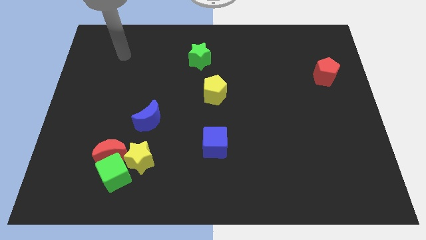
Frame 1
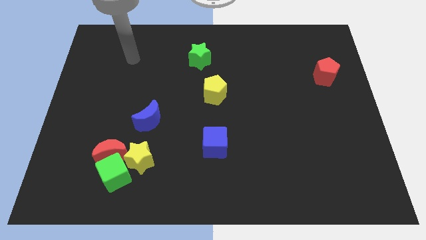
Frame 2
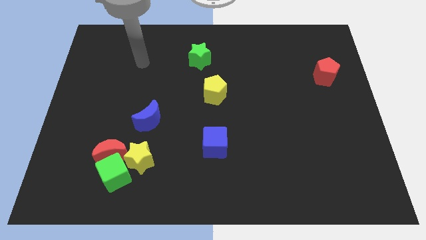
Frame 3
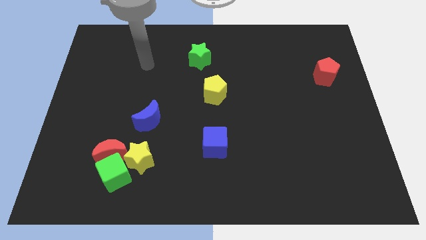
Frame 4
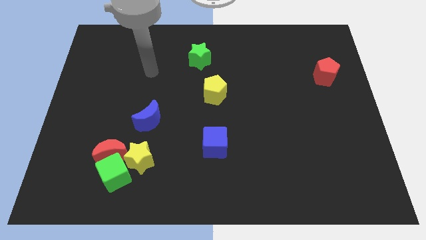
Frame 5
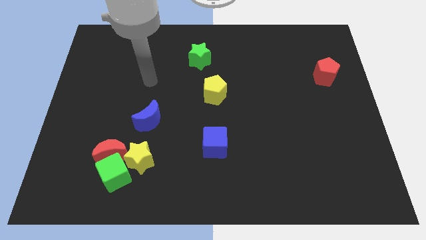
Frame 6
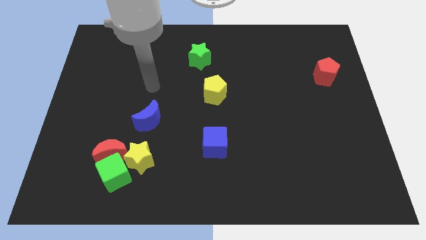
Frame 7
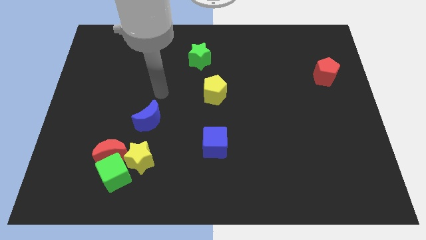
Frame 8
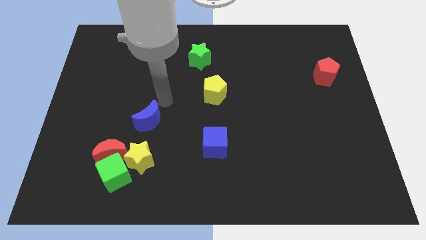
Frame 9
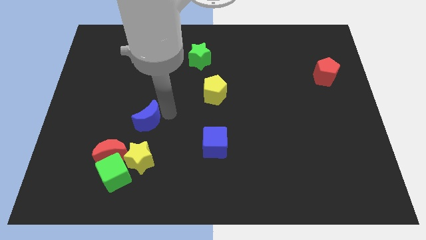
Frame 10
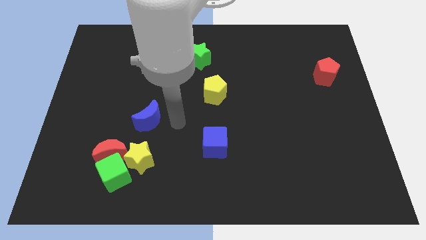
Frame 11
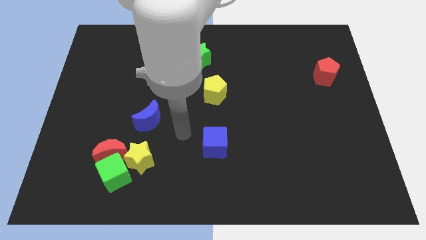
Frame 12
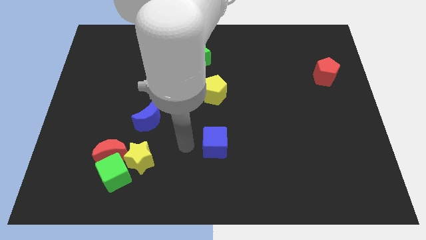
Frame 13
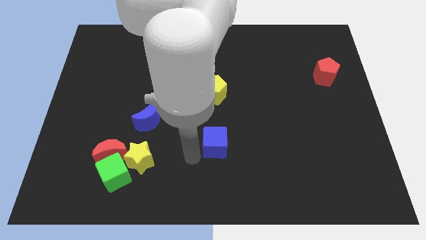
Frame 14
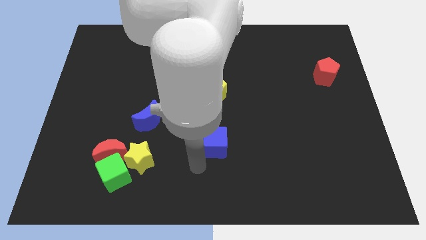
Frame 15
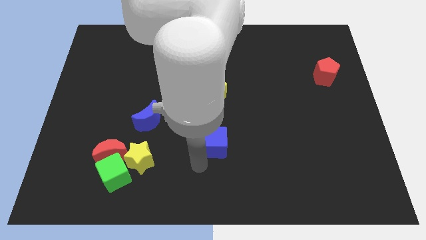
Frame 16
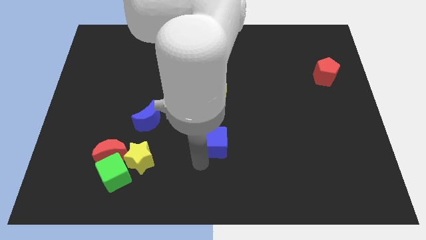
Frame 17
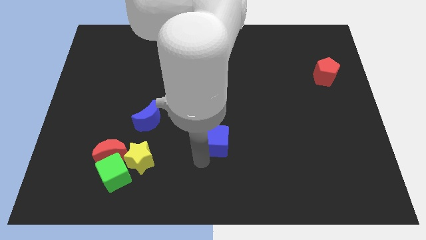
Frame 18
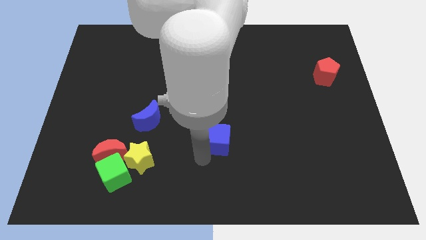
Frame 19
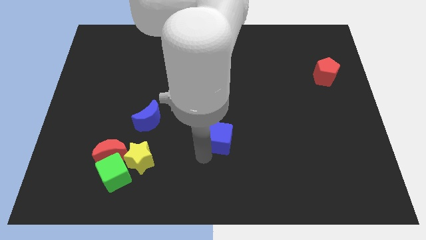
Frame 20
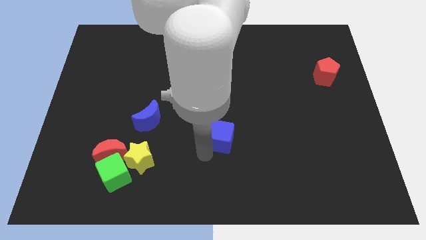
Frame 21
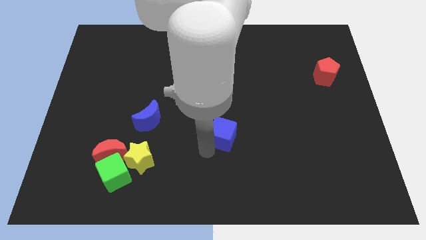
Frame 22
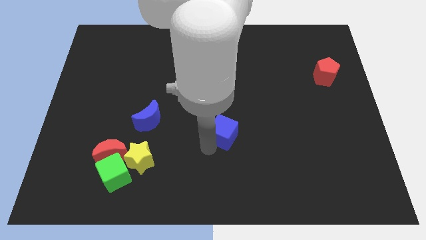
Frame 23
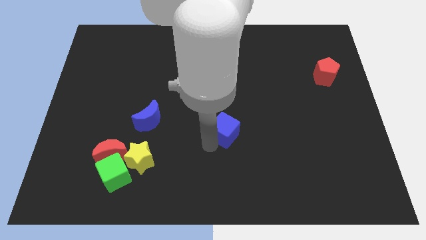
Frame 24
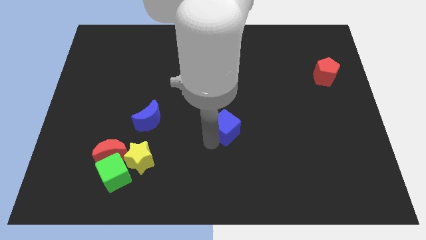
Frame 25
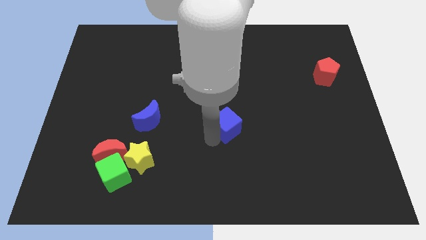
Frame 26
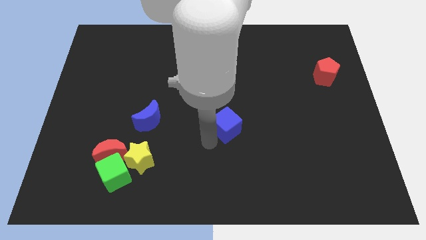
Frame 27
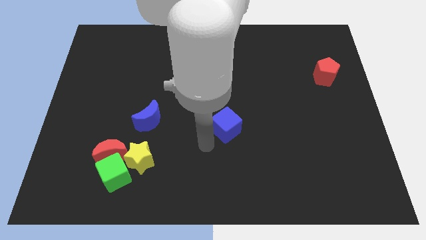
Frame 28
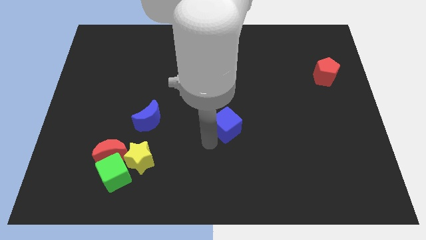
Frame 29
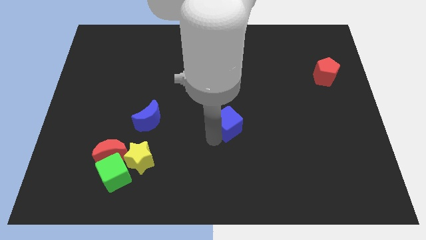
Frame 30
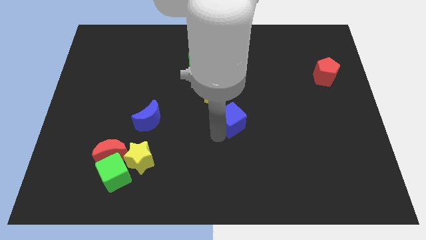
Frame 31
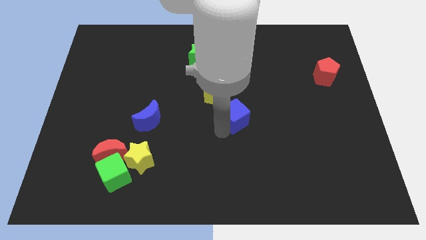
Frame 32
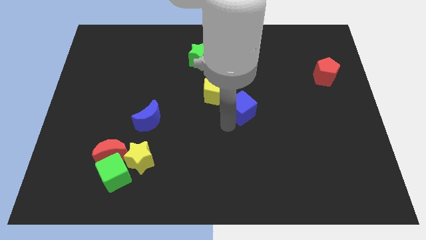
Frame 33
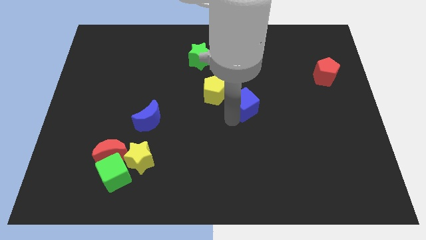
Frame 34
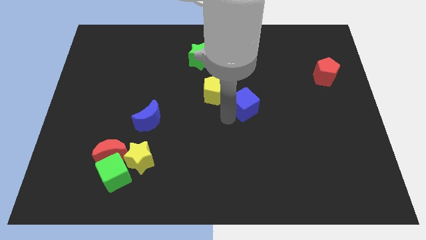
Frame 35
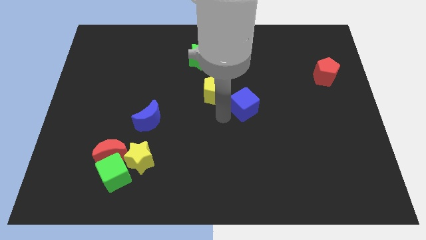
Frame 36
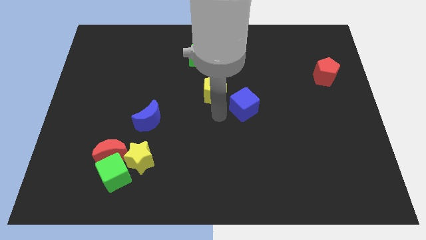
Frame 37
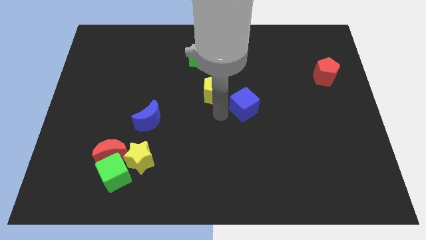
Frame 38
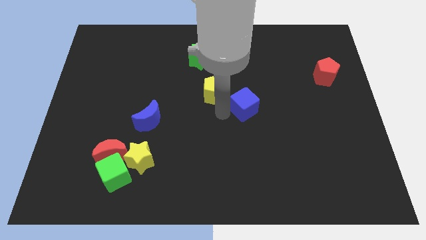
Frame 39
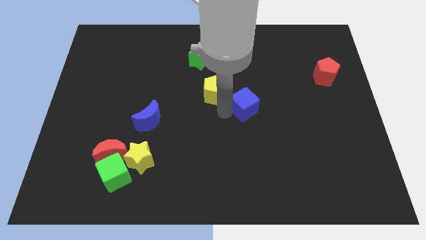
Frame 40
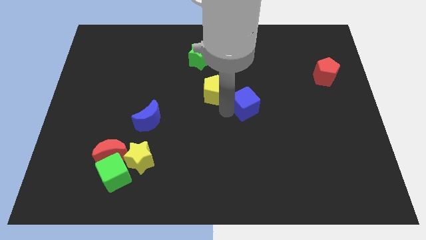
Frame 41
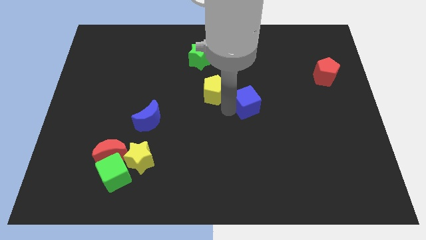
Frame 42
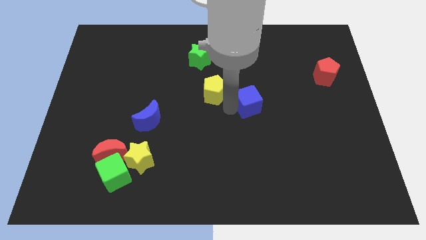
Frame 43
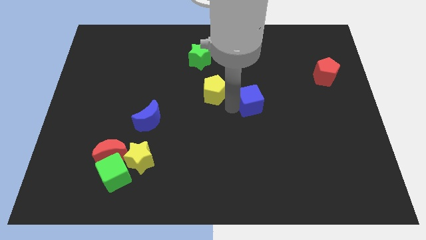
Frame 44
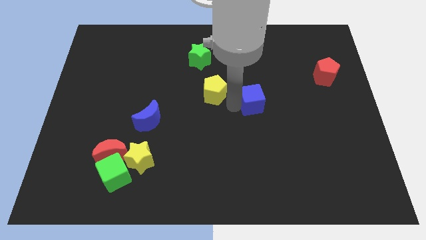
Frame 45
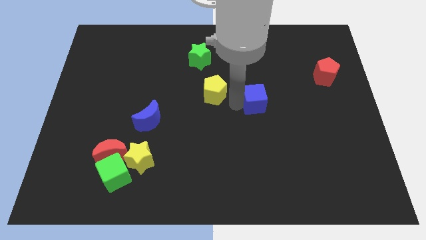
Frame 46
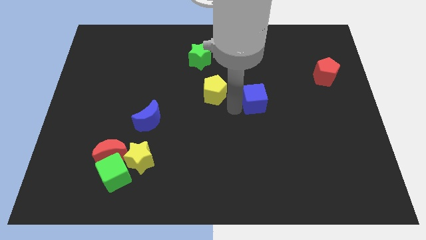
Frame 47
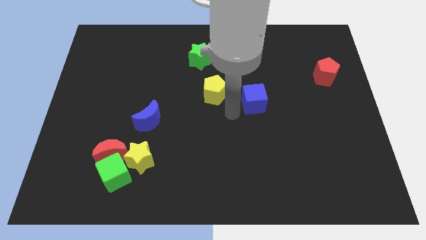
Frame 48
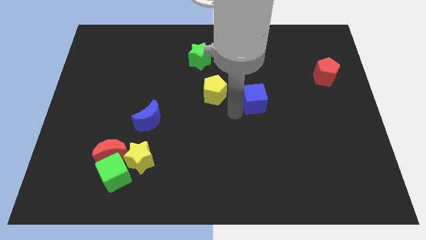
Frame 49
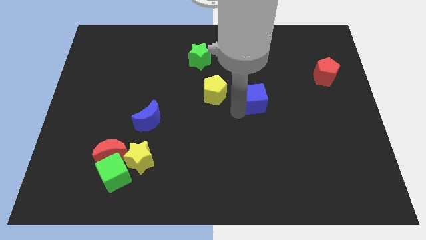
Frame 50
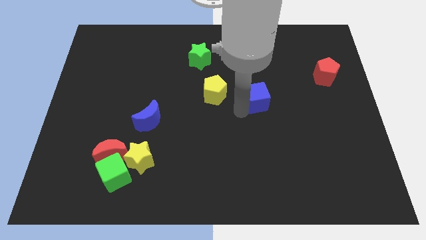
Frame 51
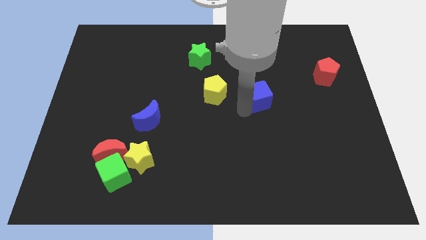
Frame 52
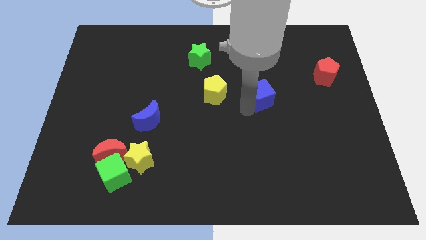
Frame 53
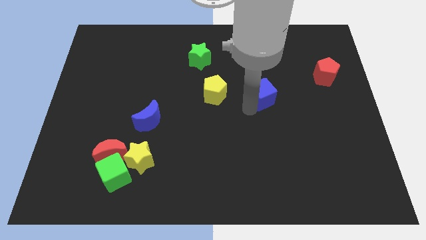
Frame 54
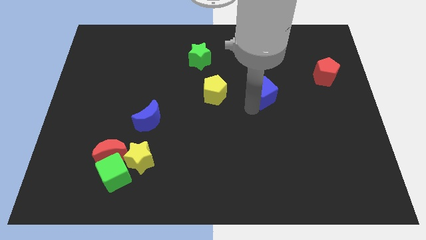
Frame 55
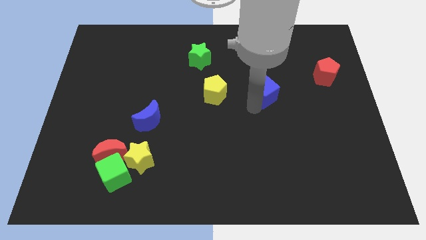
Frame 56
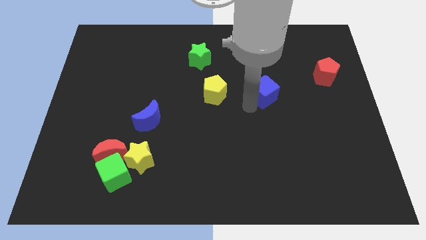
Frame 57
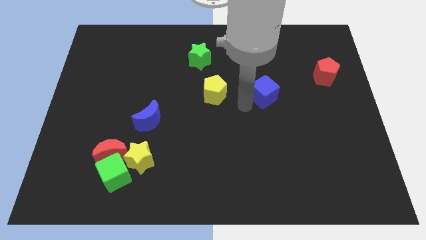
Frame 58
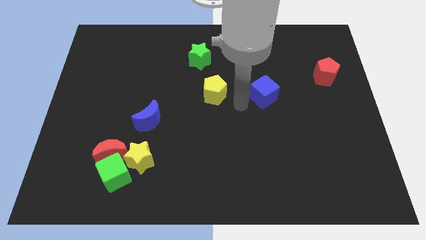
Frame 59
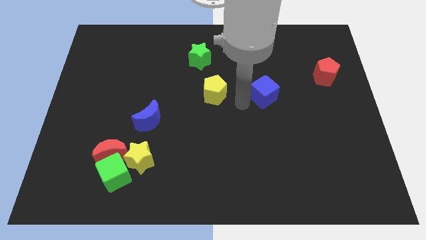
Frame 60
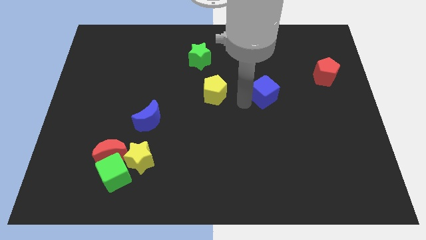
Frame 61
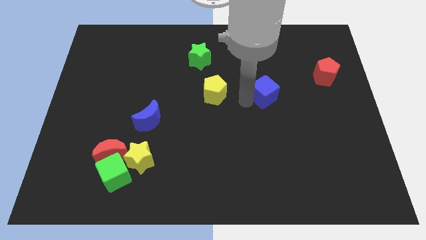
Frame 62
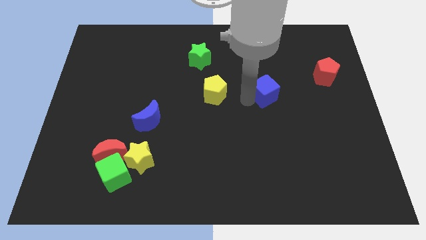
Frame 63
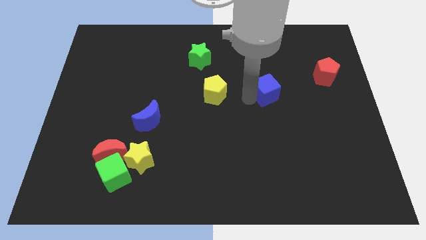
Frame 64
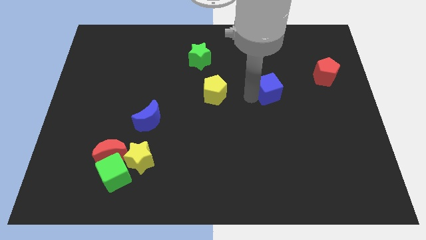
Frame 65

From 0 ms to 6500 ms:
push the blue cube up and right diagonally

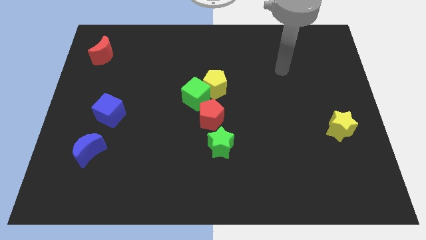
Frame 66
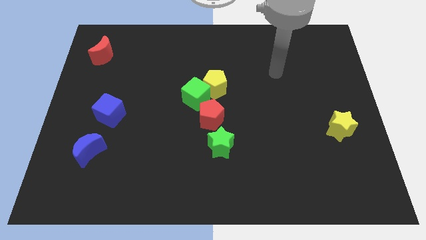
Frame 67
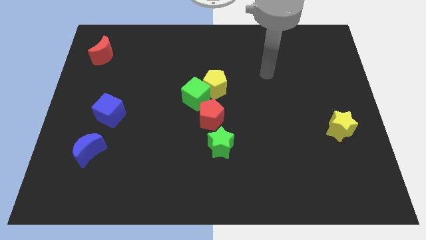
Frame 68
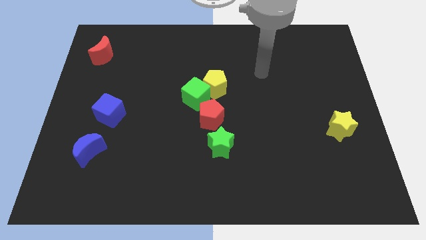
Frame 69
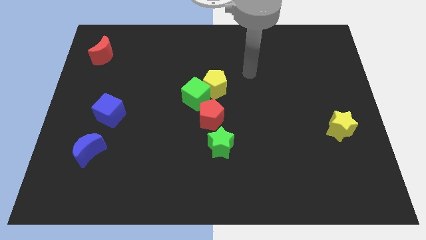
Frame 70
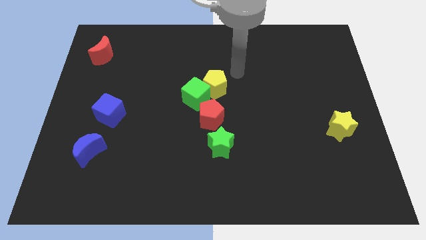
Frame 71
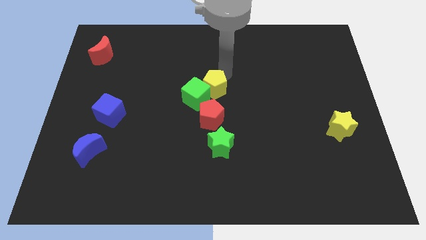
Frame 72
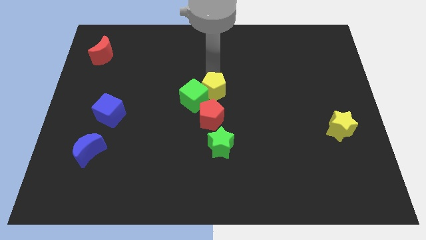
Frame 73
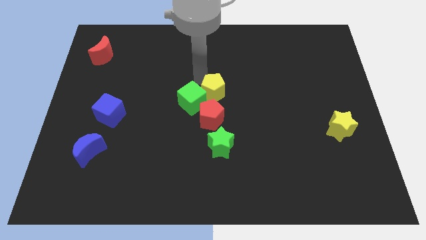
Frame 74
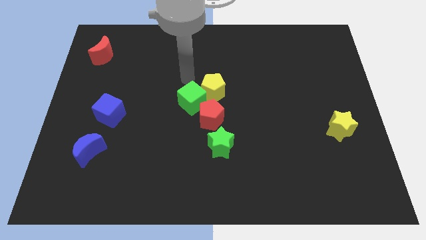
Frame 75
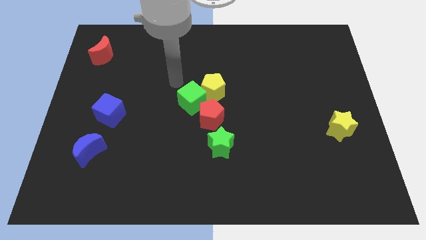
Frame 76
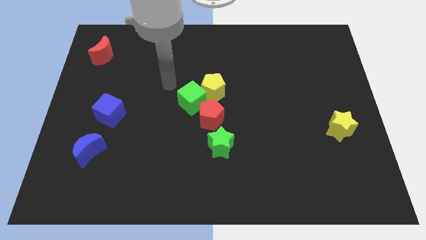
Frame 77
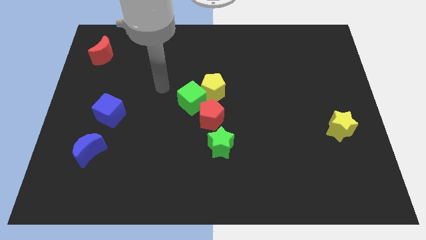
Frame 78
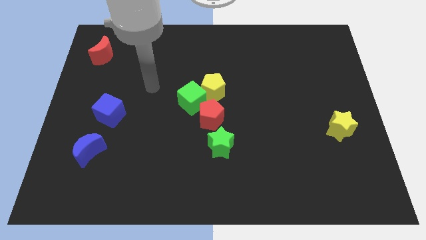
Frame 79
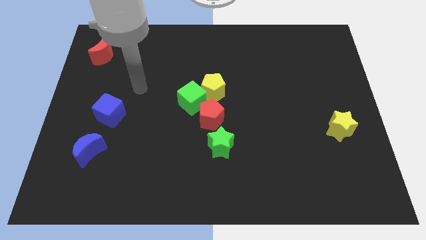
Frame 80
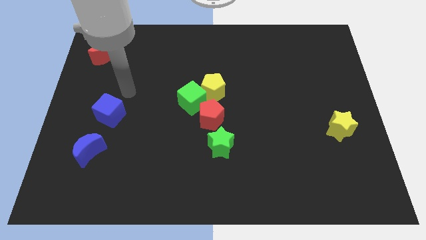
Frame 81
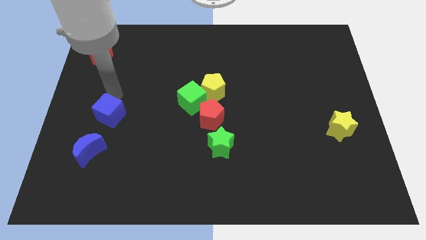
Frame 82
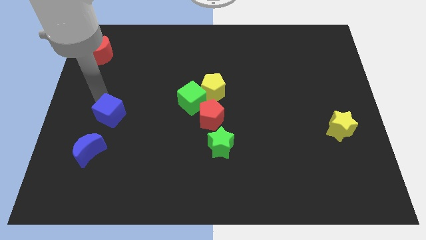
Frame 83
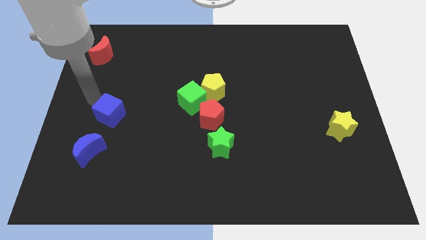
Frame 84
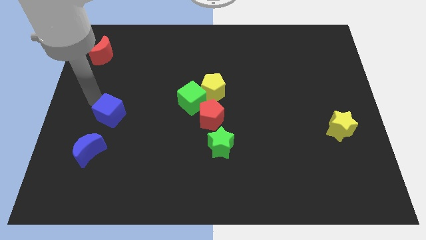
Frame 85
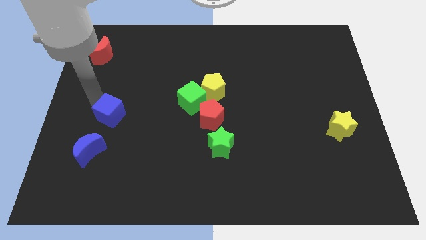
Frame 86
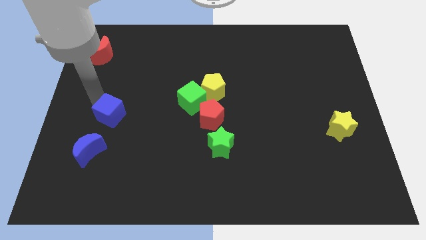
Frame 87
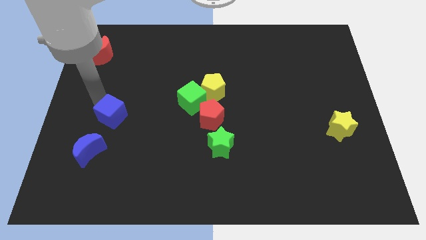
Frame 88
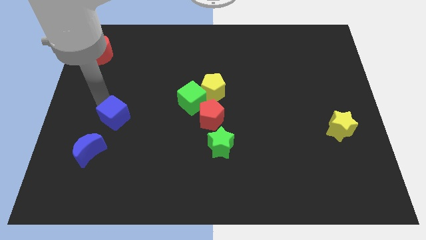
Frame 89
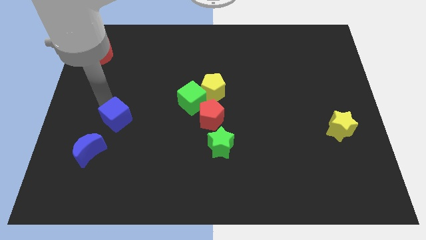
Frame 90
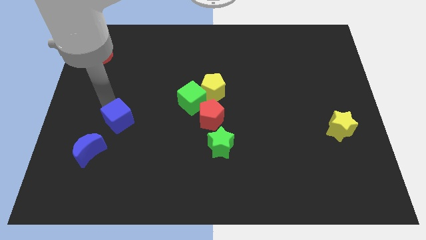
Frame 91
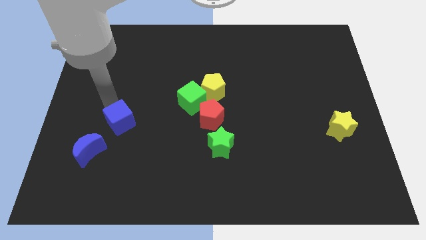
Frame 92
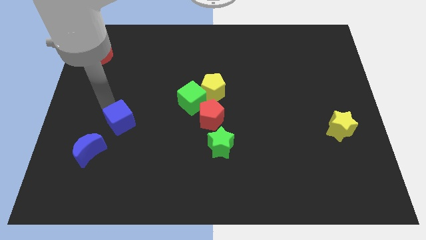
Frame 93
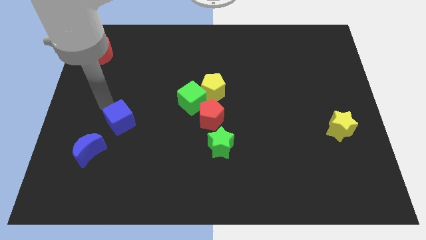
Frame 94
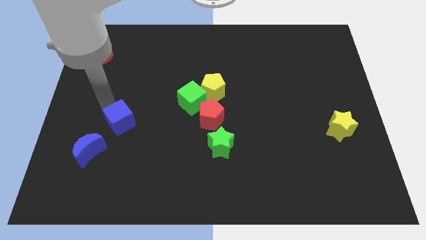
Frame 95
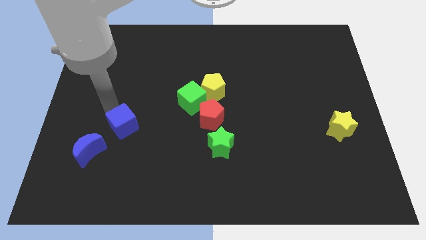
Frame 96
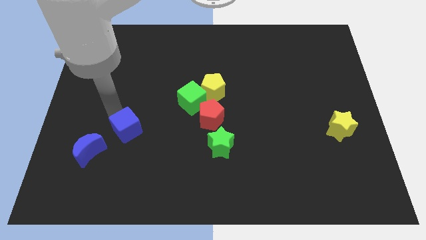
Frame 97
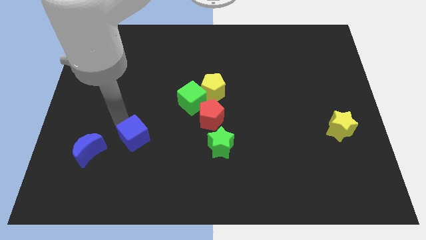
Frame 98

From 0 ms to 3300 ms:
slightly slide the blue cube downwards and then to the right
